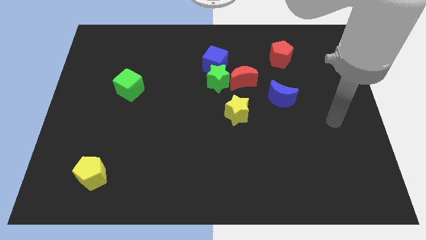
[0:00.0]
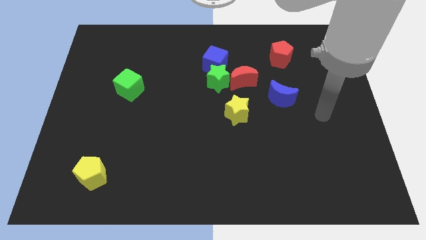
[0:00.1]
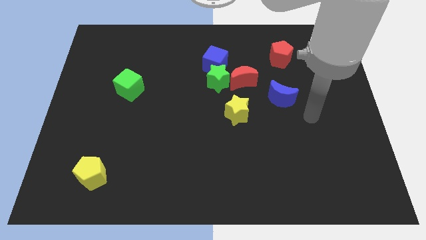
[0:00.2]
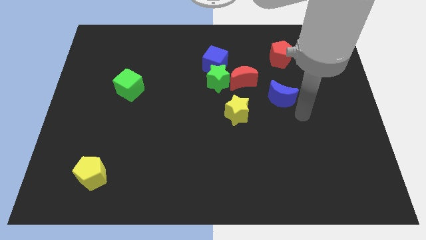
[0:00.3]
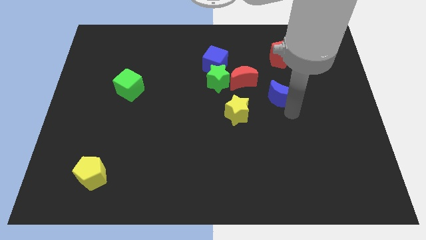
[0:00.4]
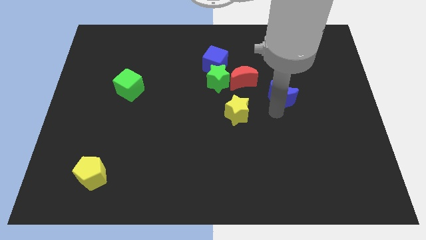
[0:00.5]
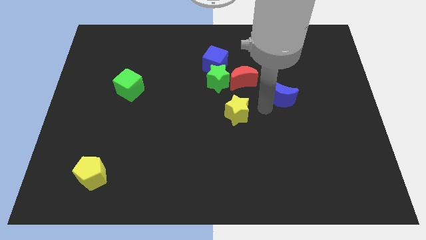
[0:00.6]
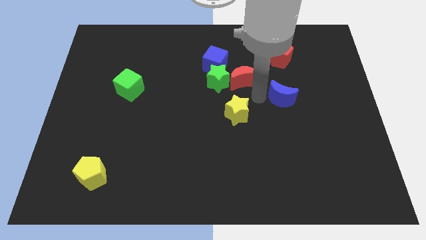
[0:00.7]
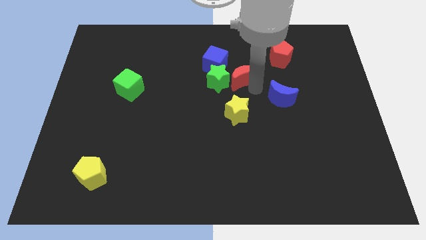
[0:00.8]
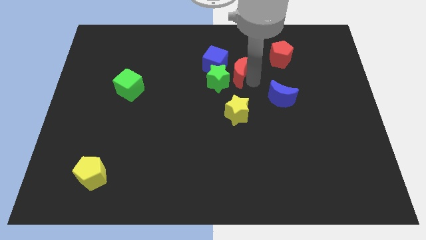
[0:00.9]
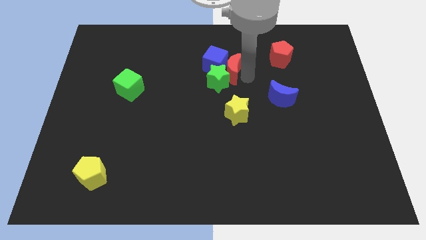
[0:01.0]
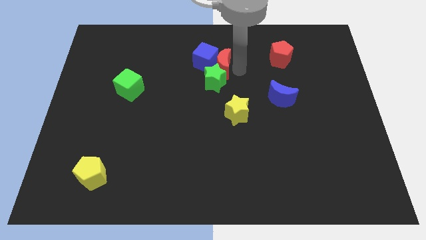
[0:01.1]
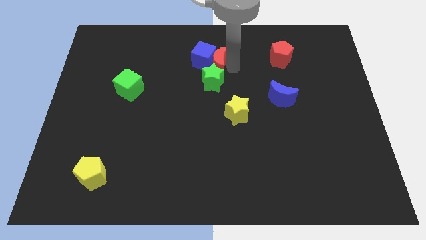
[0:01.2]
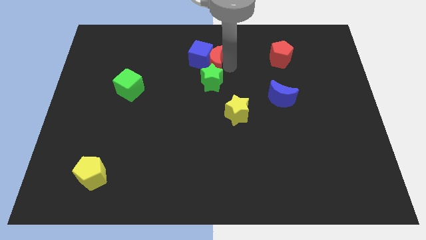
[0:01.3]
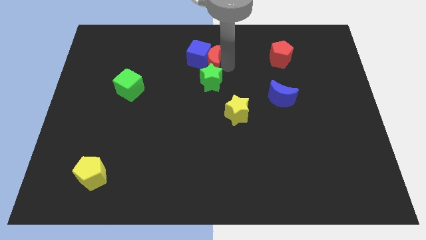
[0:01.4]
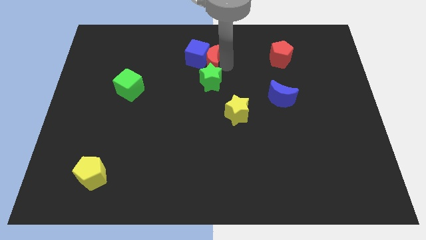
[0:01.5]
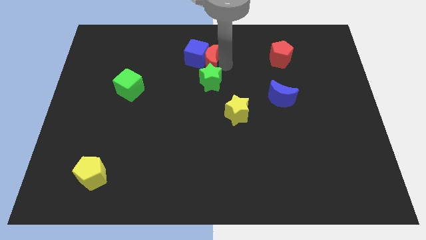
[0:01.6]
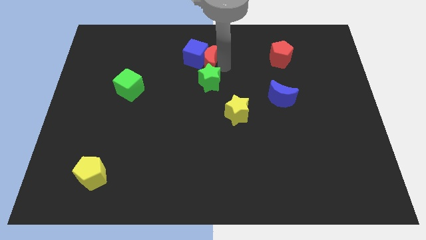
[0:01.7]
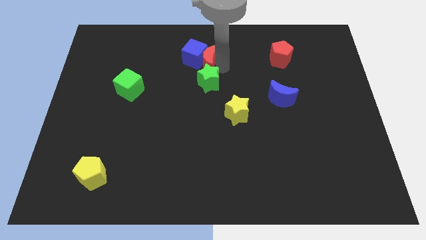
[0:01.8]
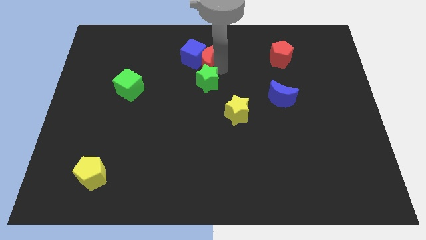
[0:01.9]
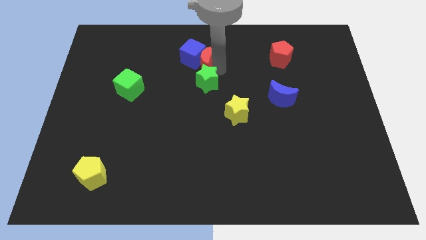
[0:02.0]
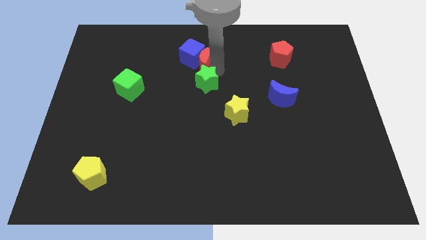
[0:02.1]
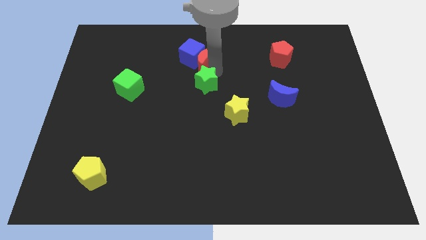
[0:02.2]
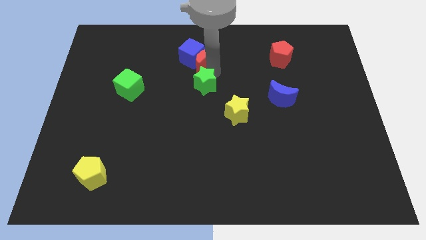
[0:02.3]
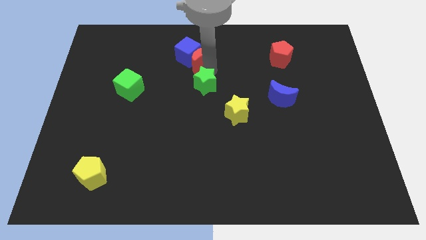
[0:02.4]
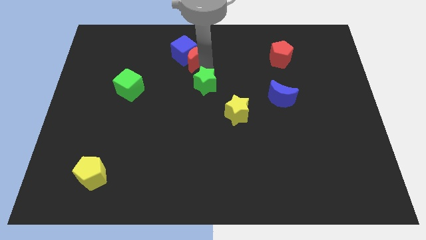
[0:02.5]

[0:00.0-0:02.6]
separate the green star from the red moon and blue cube

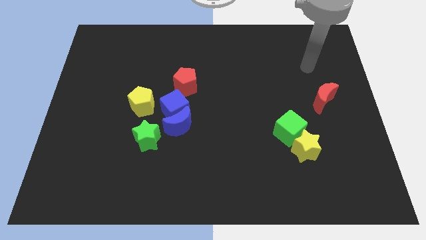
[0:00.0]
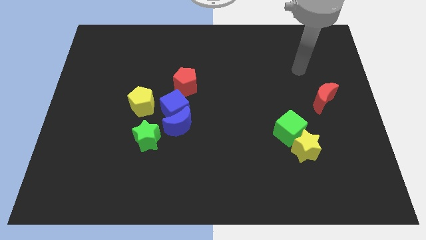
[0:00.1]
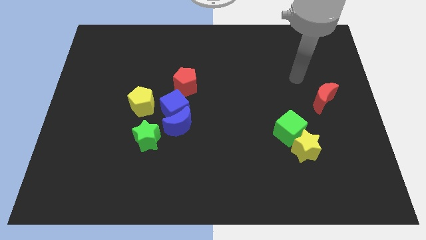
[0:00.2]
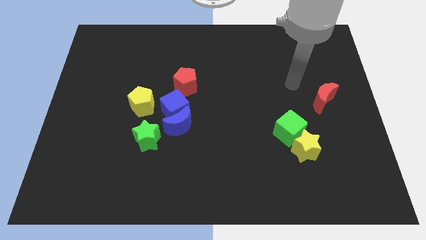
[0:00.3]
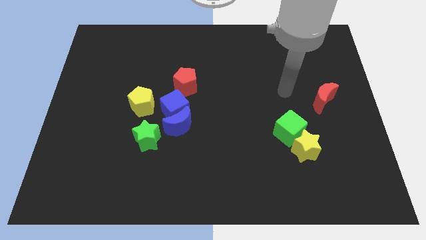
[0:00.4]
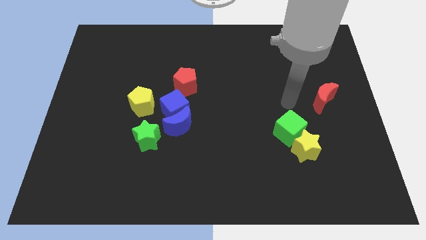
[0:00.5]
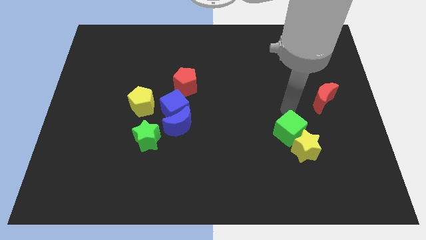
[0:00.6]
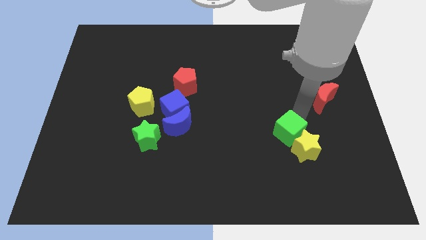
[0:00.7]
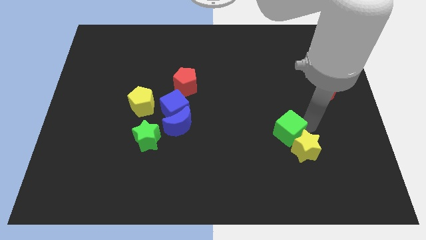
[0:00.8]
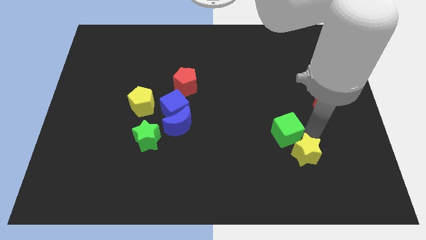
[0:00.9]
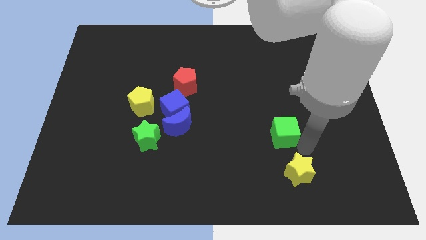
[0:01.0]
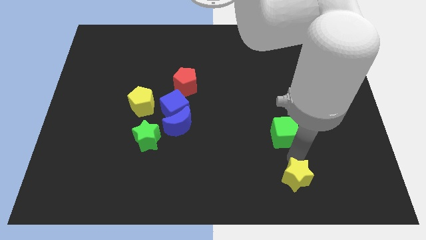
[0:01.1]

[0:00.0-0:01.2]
move the green cube away from the yellow star

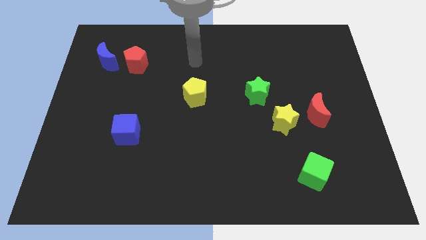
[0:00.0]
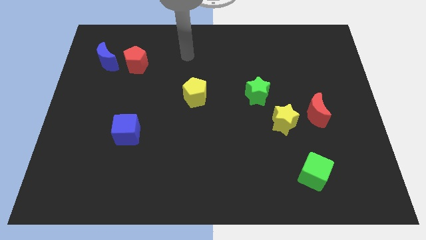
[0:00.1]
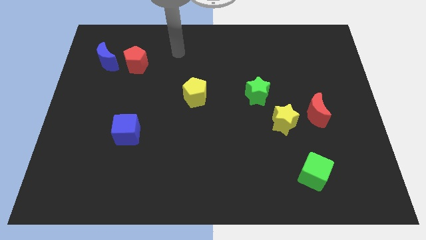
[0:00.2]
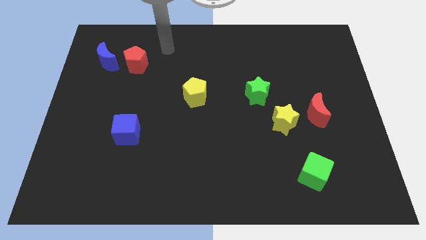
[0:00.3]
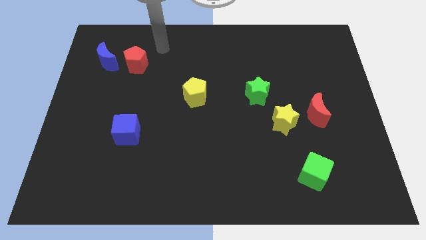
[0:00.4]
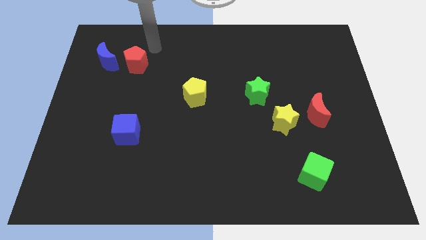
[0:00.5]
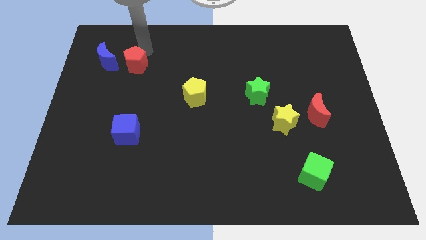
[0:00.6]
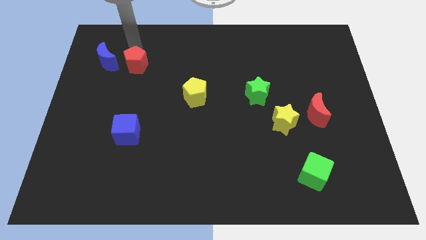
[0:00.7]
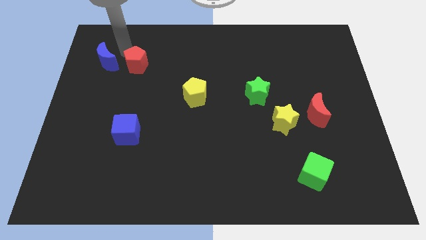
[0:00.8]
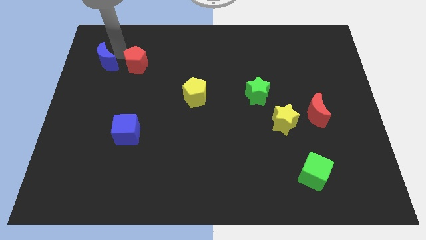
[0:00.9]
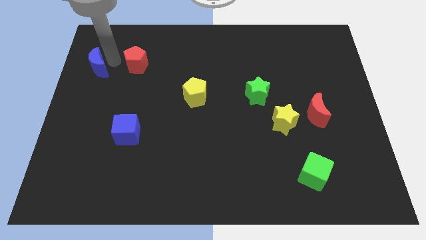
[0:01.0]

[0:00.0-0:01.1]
move the red pentagon away from the blue moon

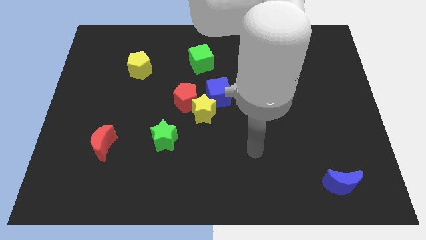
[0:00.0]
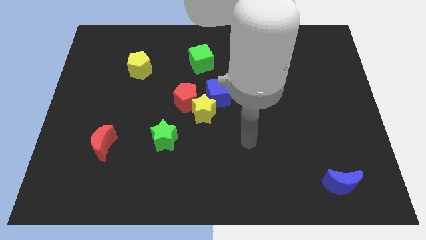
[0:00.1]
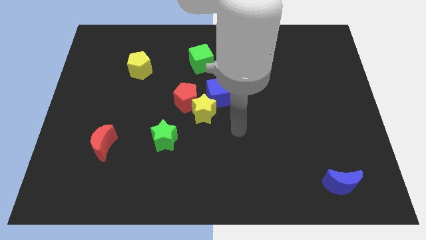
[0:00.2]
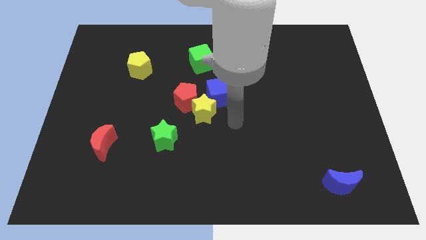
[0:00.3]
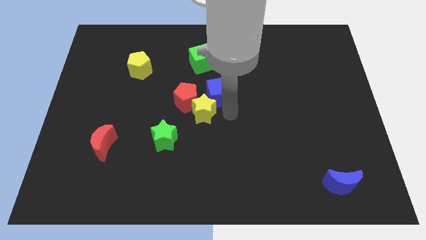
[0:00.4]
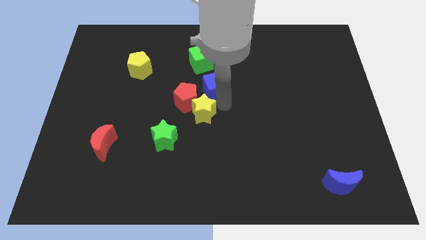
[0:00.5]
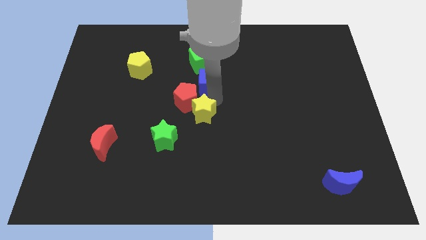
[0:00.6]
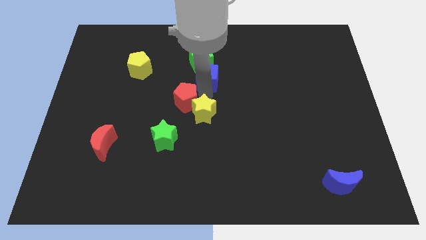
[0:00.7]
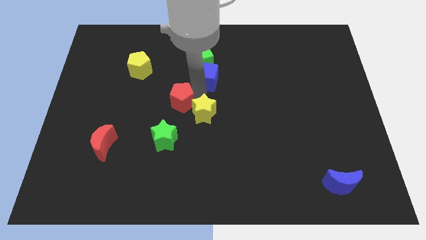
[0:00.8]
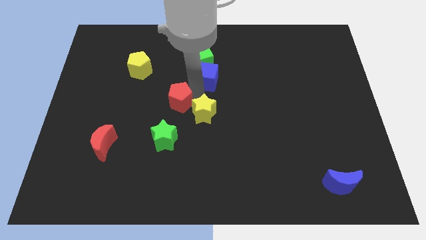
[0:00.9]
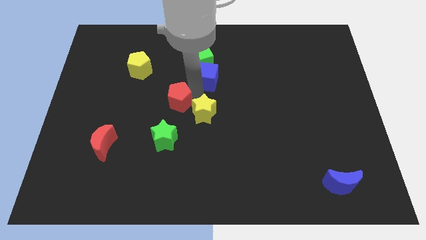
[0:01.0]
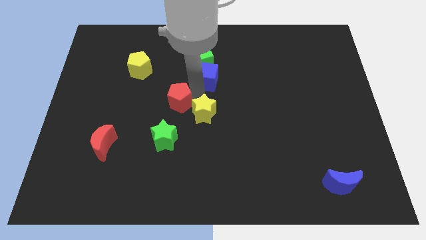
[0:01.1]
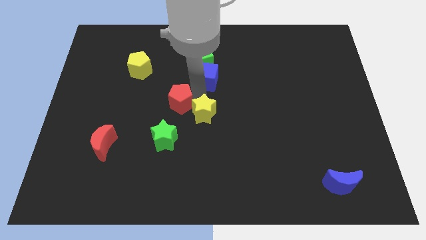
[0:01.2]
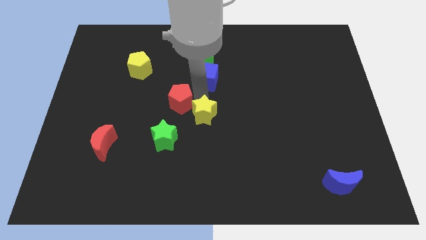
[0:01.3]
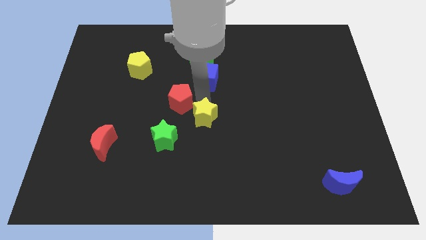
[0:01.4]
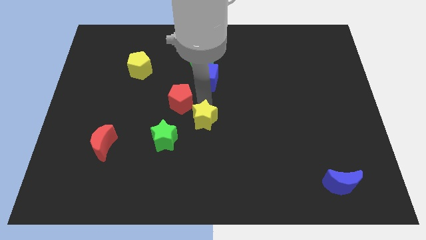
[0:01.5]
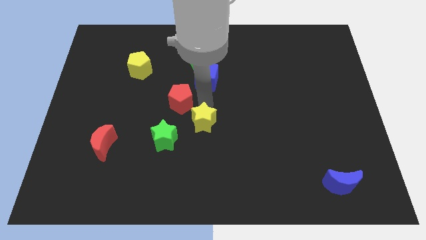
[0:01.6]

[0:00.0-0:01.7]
move the yellow star away from the red pentagon and blue cube

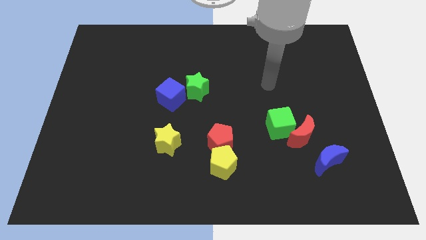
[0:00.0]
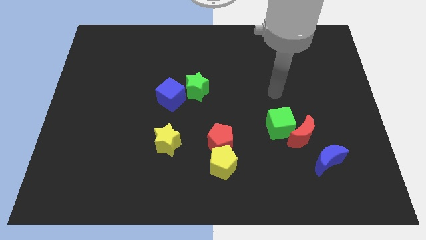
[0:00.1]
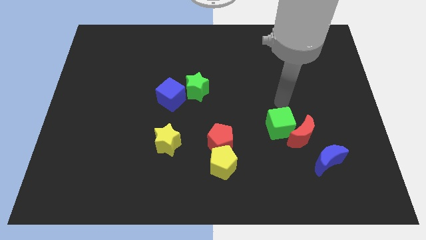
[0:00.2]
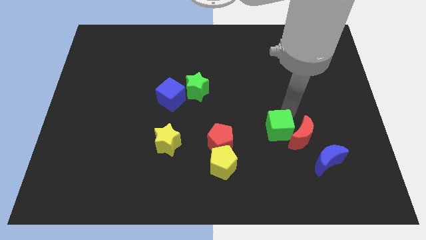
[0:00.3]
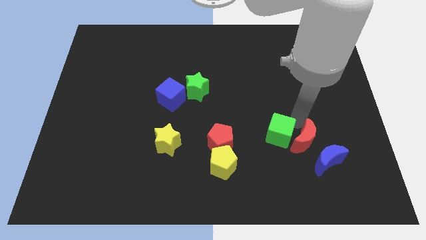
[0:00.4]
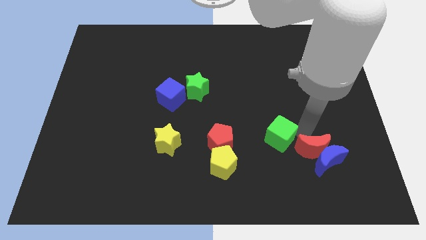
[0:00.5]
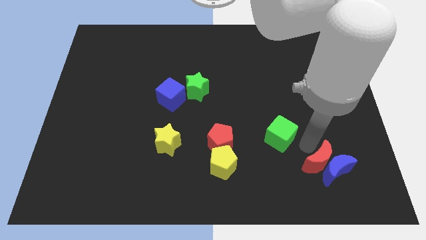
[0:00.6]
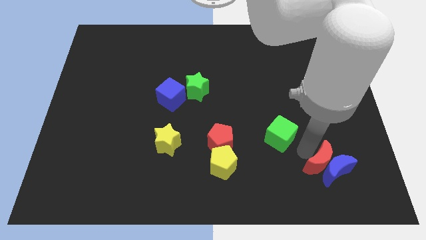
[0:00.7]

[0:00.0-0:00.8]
pull the green cube apart from the red moon

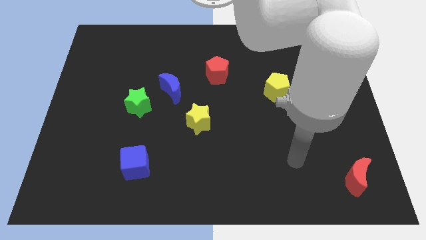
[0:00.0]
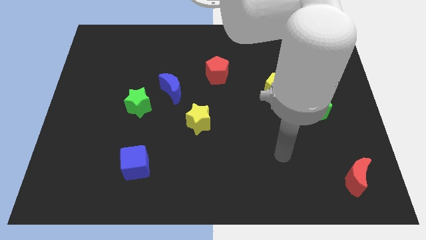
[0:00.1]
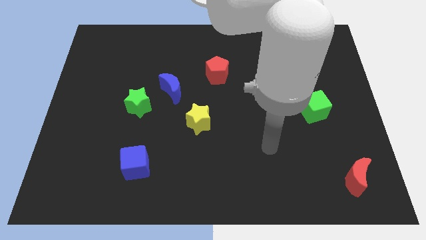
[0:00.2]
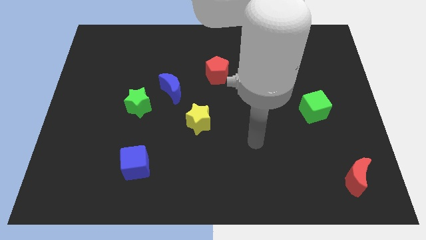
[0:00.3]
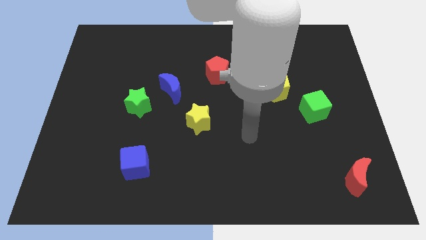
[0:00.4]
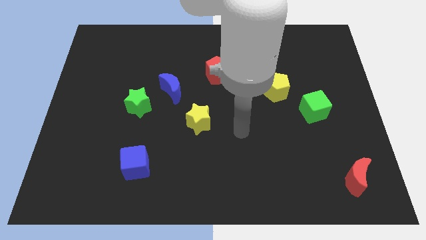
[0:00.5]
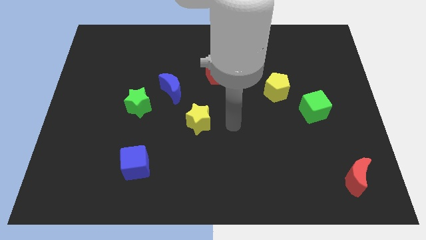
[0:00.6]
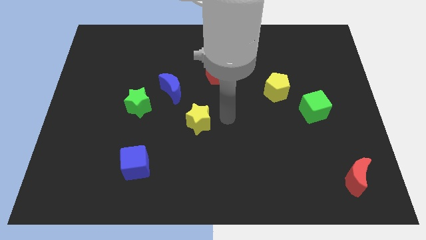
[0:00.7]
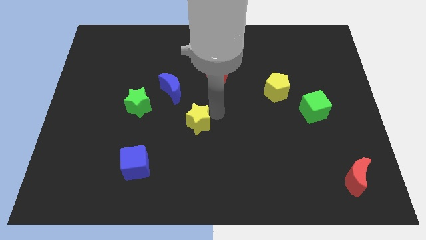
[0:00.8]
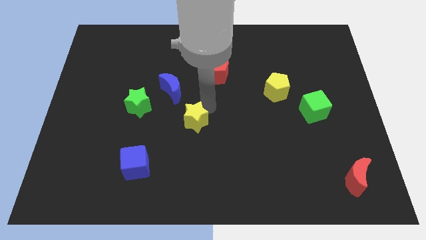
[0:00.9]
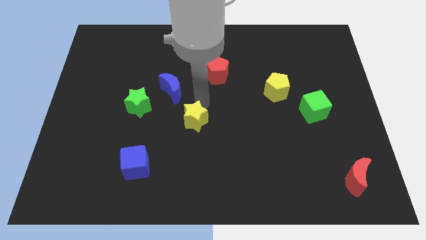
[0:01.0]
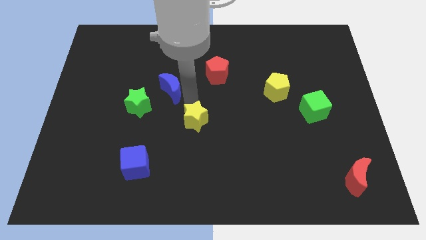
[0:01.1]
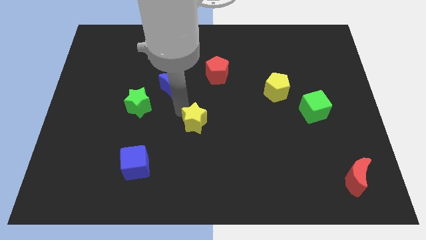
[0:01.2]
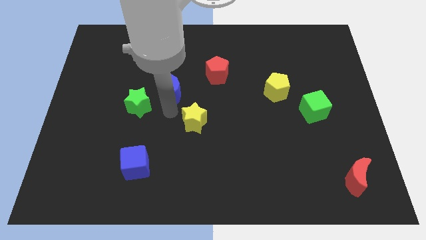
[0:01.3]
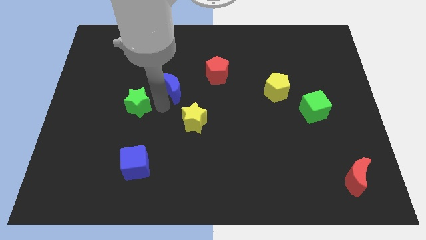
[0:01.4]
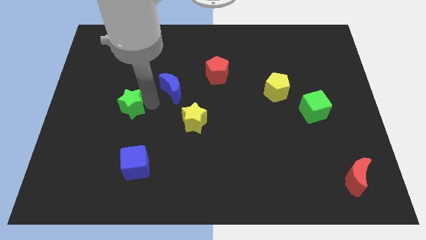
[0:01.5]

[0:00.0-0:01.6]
move the blue moon away from the green star

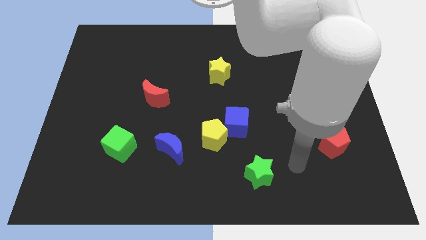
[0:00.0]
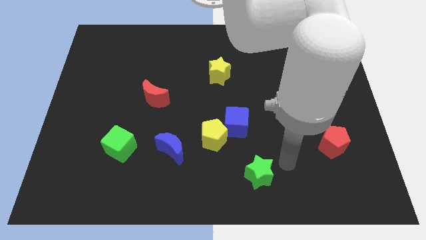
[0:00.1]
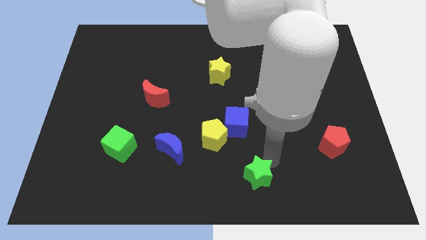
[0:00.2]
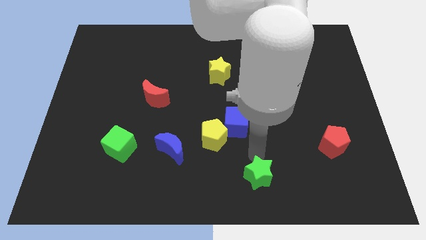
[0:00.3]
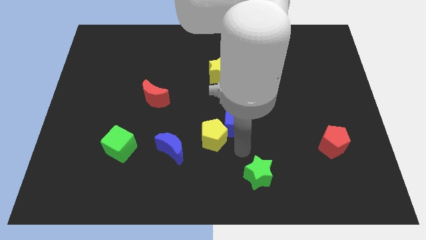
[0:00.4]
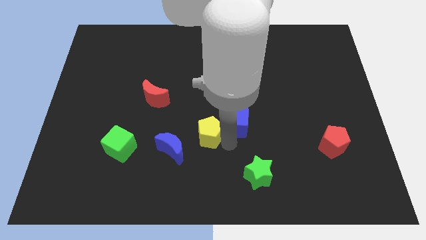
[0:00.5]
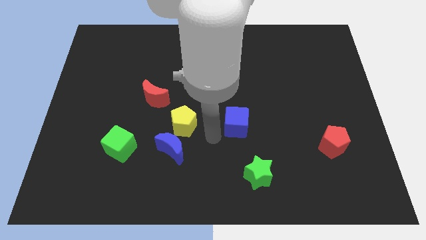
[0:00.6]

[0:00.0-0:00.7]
pull the blue cube apart from the yellow pentagon
